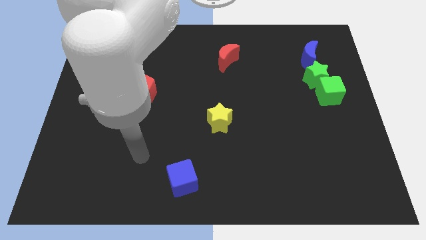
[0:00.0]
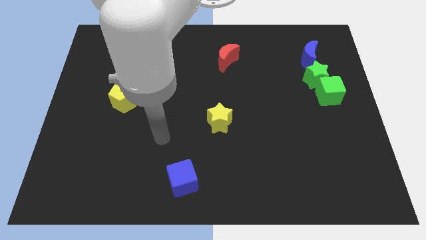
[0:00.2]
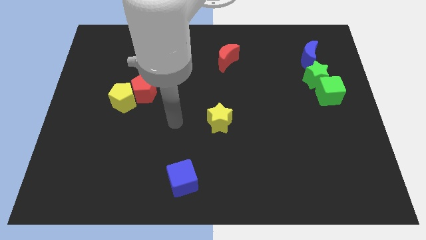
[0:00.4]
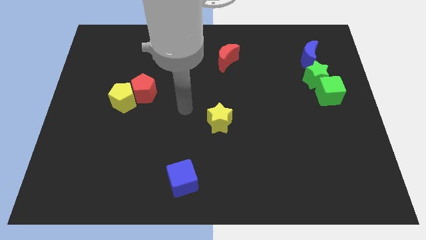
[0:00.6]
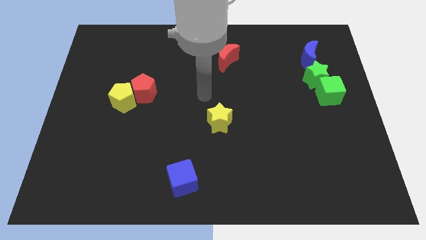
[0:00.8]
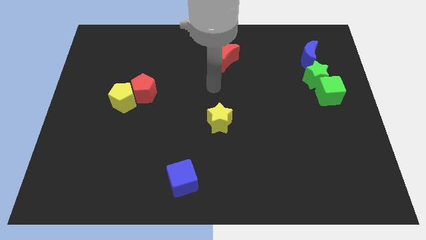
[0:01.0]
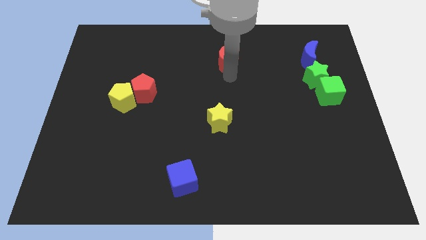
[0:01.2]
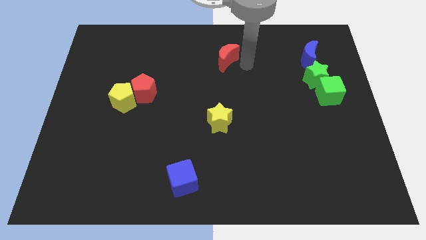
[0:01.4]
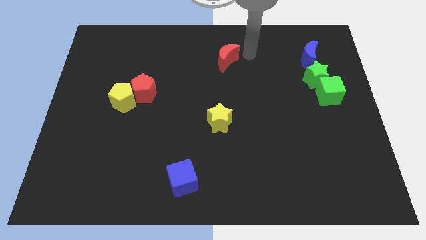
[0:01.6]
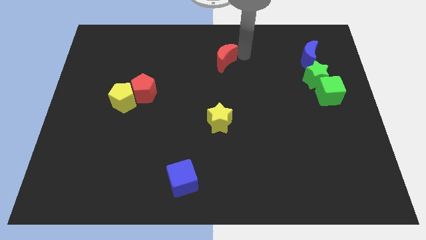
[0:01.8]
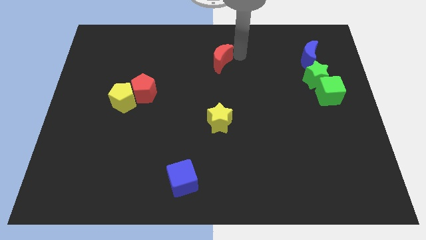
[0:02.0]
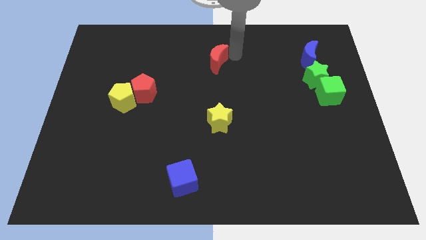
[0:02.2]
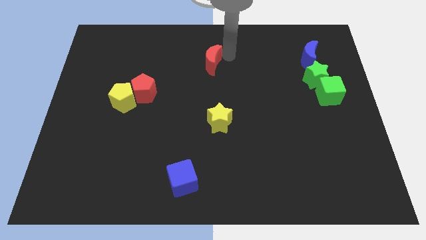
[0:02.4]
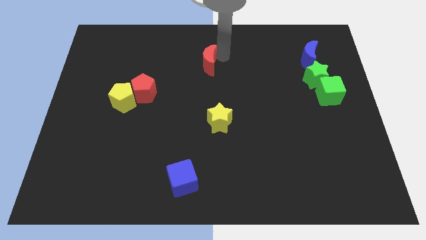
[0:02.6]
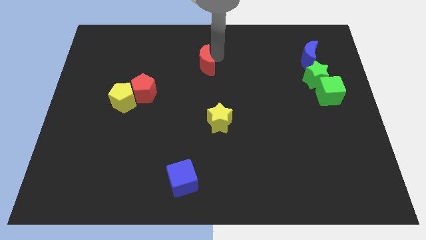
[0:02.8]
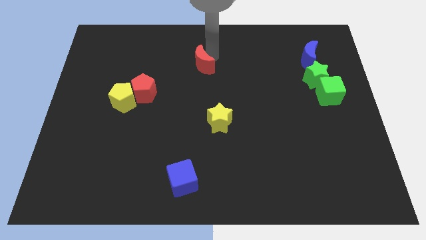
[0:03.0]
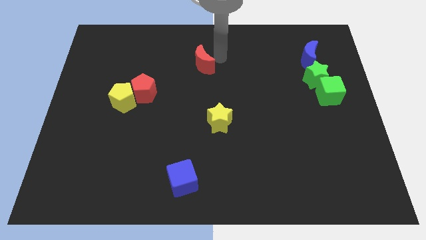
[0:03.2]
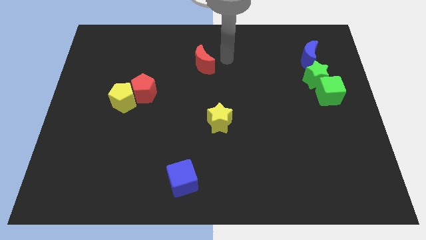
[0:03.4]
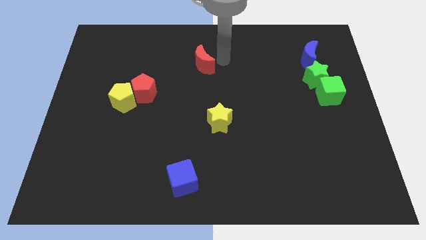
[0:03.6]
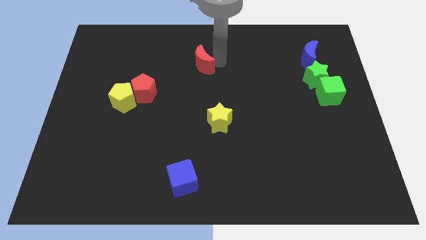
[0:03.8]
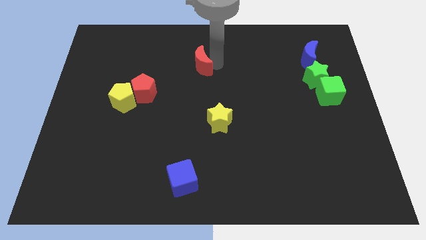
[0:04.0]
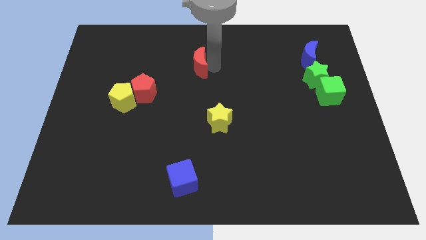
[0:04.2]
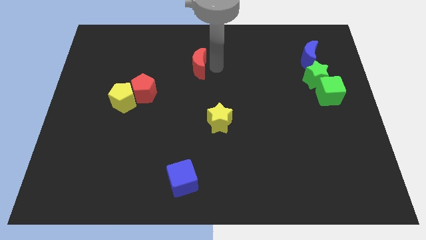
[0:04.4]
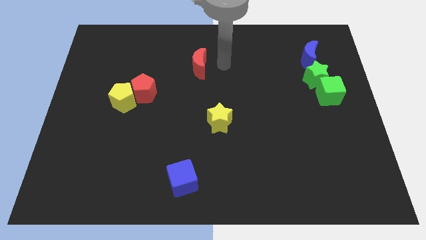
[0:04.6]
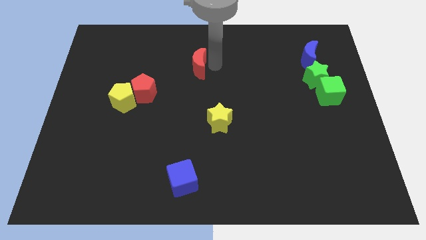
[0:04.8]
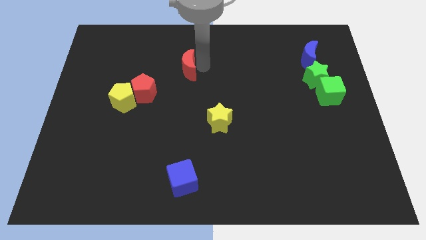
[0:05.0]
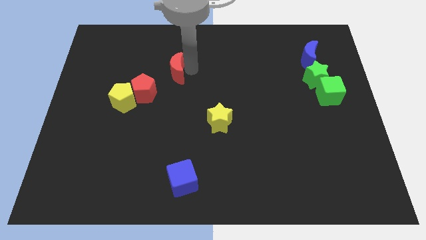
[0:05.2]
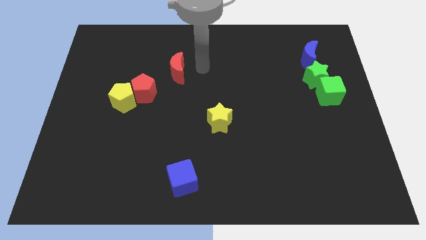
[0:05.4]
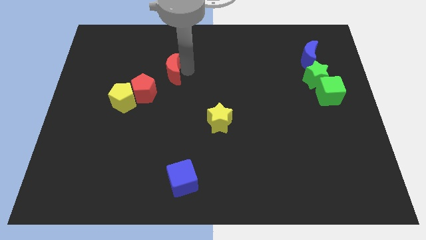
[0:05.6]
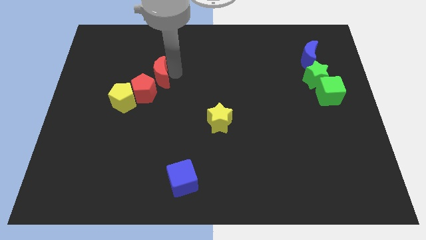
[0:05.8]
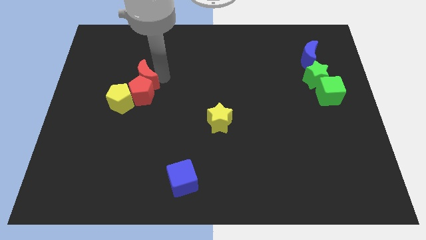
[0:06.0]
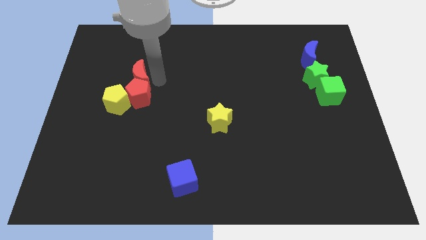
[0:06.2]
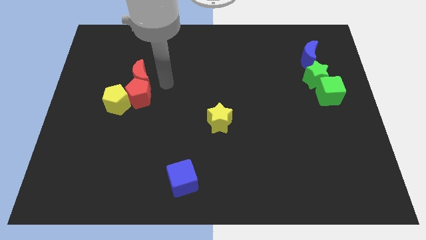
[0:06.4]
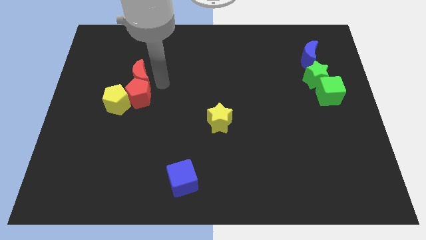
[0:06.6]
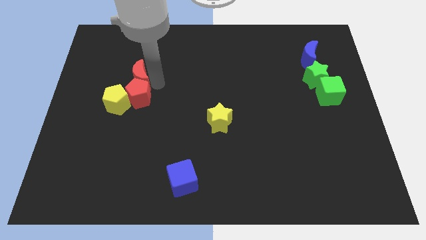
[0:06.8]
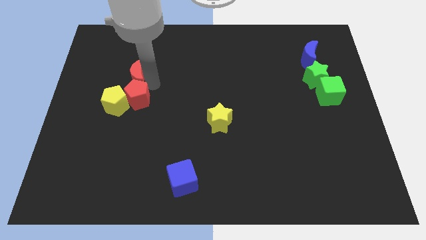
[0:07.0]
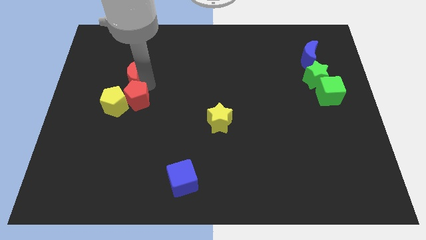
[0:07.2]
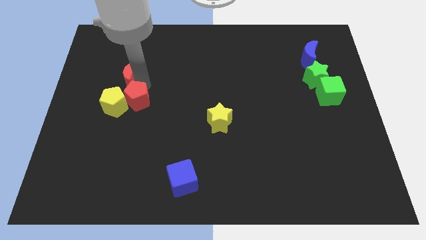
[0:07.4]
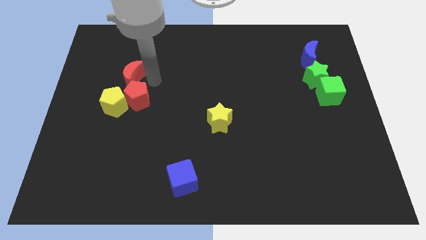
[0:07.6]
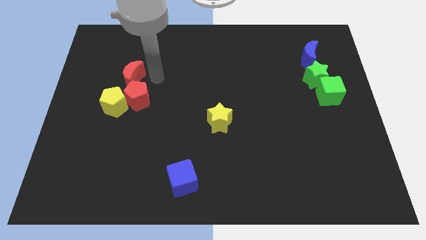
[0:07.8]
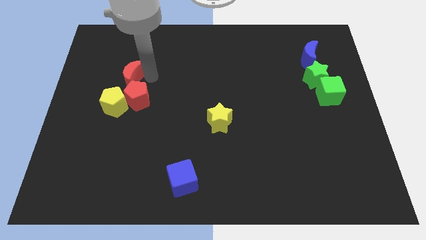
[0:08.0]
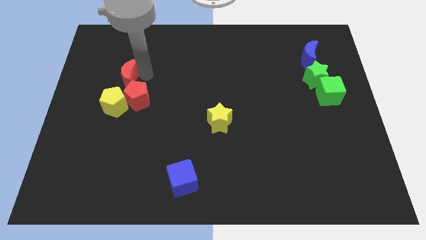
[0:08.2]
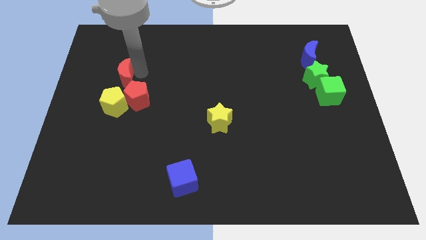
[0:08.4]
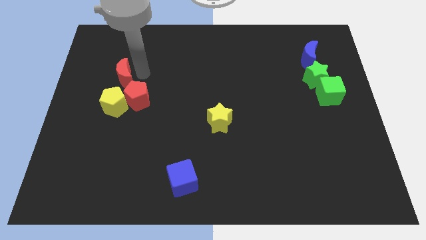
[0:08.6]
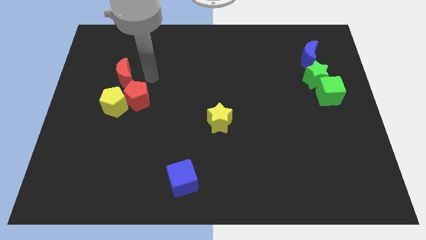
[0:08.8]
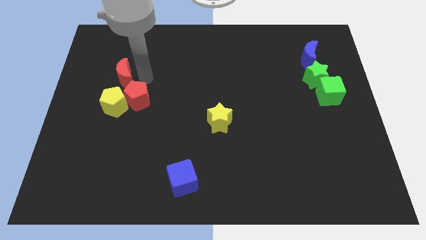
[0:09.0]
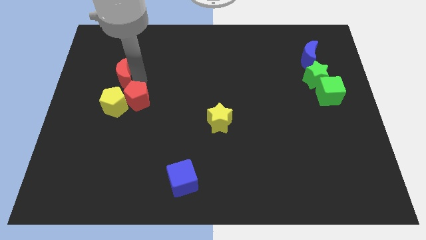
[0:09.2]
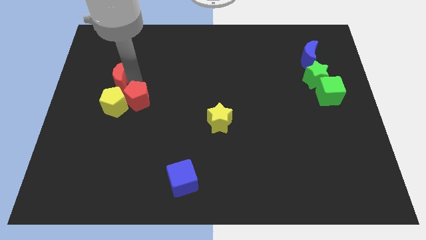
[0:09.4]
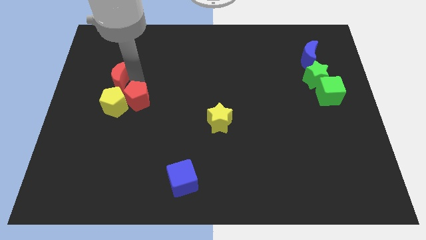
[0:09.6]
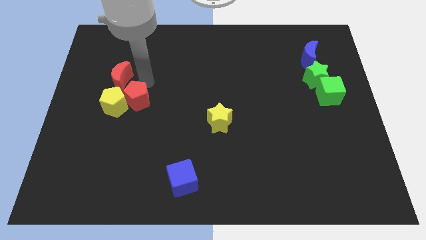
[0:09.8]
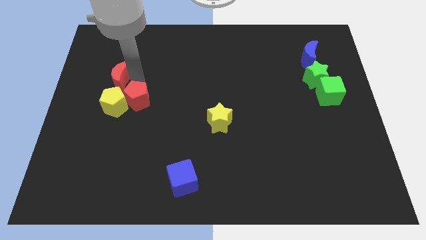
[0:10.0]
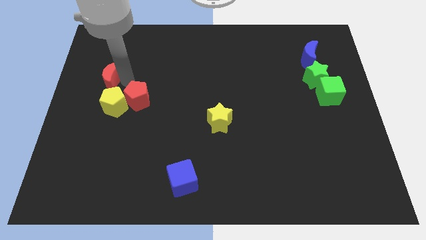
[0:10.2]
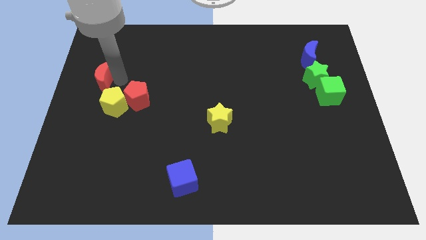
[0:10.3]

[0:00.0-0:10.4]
push the red moon to the center left

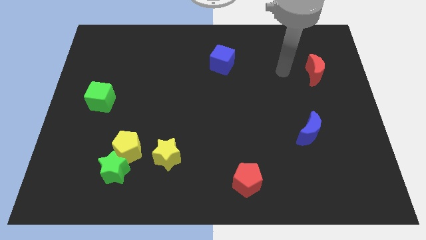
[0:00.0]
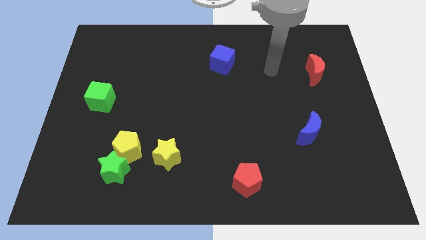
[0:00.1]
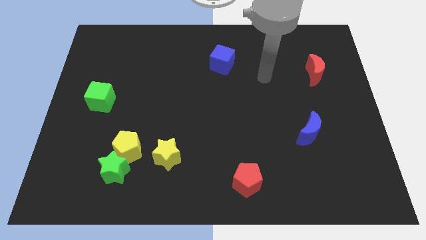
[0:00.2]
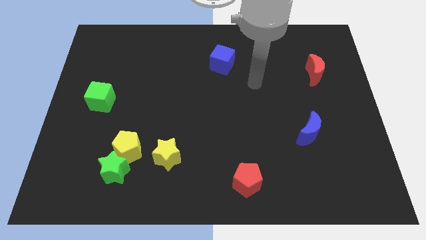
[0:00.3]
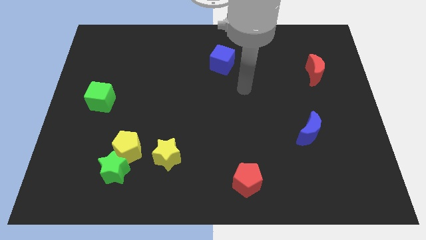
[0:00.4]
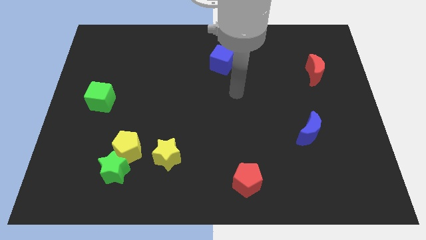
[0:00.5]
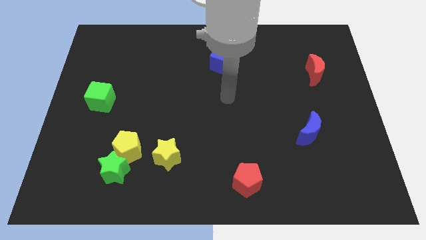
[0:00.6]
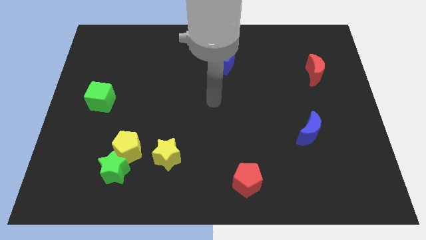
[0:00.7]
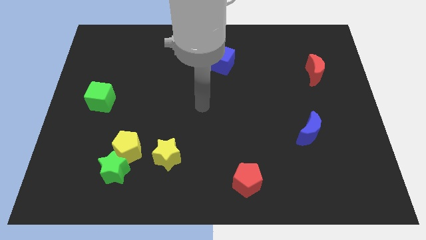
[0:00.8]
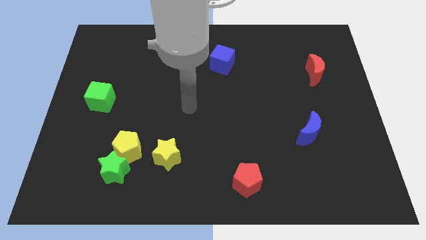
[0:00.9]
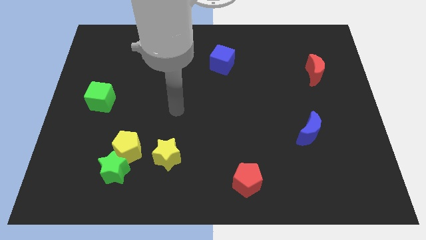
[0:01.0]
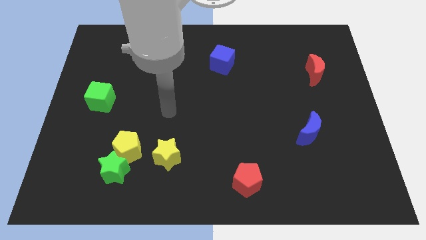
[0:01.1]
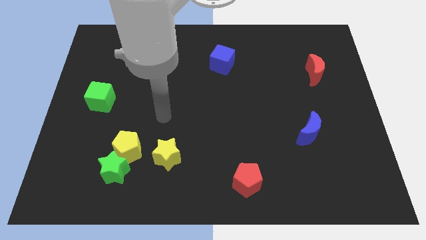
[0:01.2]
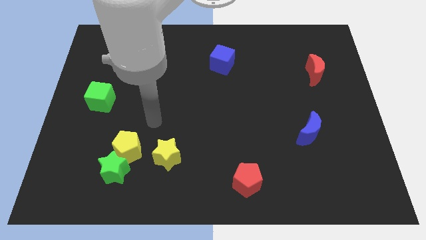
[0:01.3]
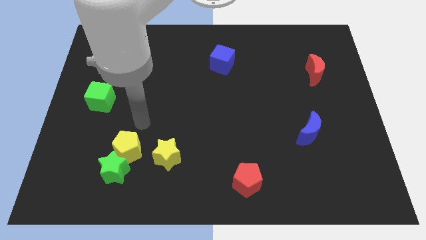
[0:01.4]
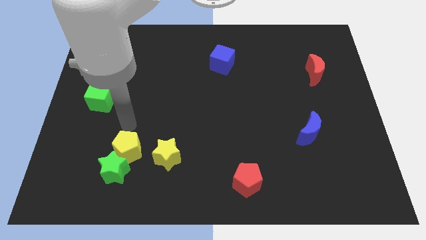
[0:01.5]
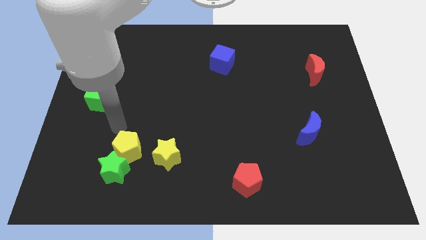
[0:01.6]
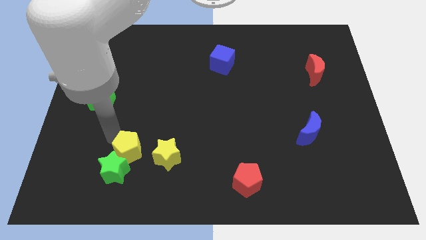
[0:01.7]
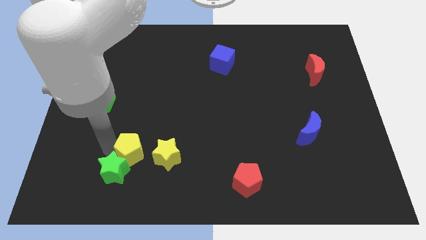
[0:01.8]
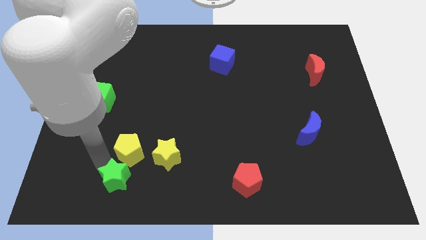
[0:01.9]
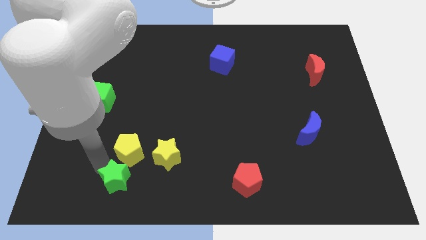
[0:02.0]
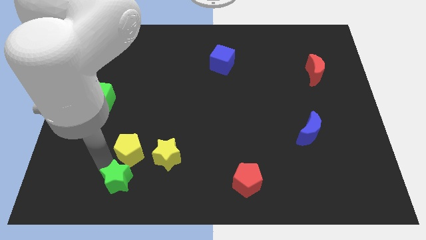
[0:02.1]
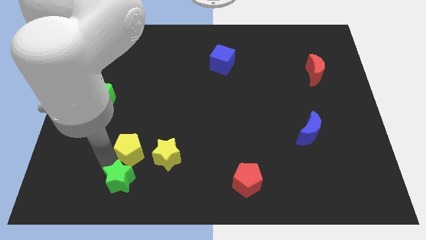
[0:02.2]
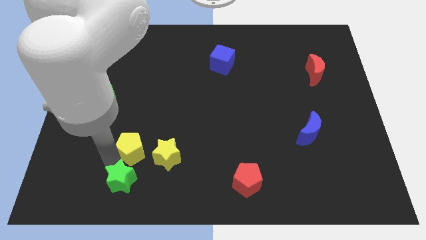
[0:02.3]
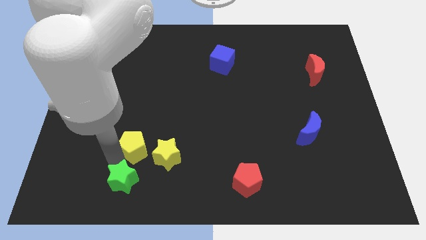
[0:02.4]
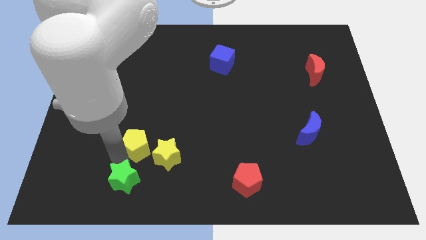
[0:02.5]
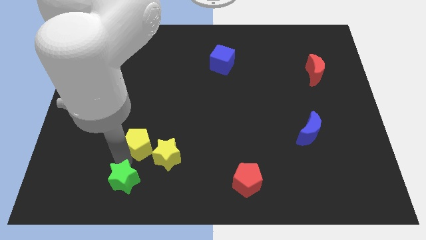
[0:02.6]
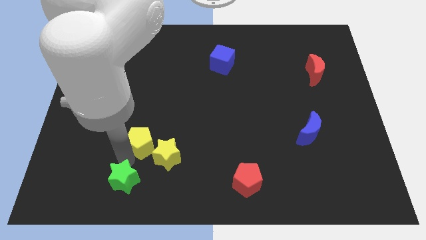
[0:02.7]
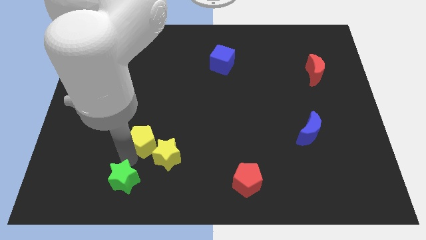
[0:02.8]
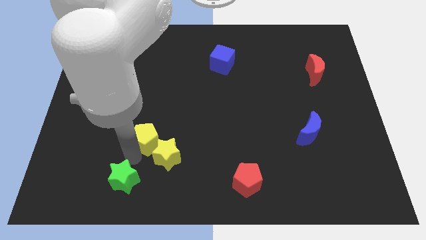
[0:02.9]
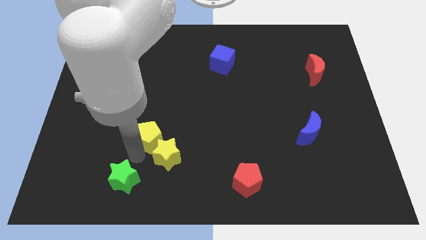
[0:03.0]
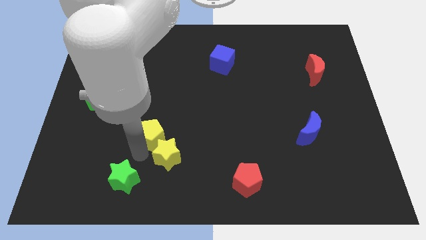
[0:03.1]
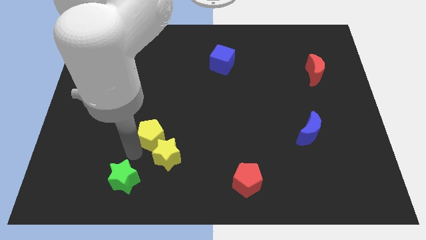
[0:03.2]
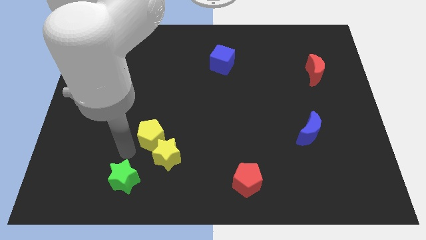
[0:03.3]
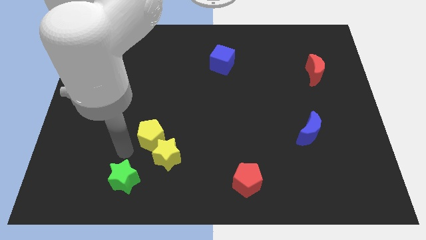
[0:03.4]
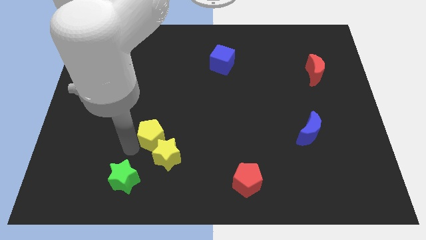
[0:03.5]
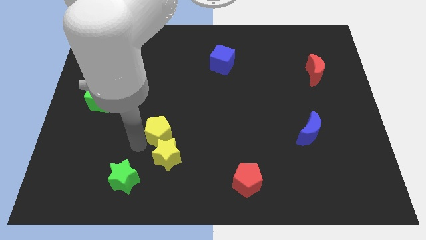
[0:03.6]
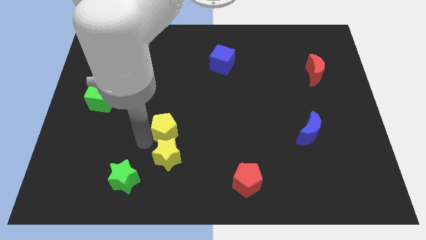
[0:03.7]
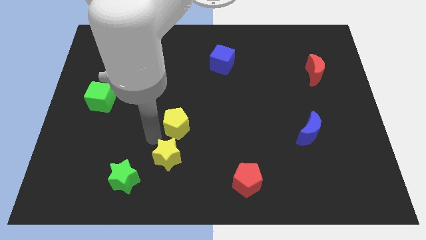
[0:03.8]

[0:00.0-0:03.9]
put the yellow pentagon to the middle of the board
